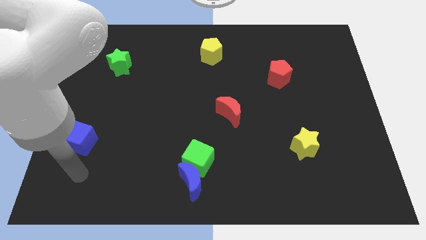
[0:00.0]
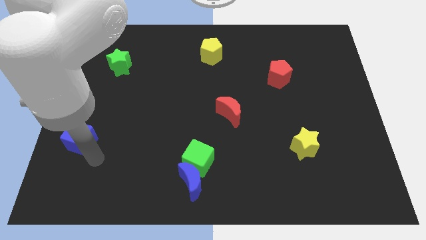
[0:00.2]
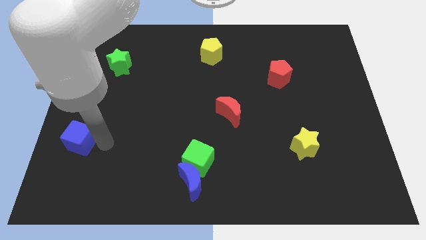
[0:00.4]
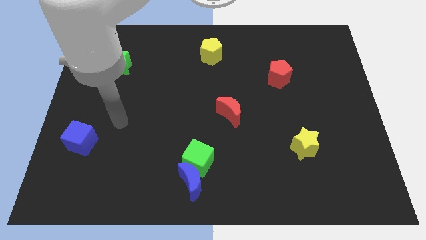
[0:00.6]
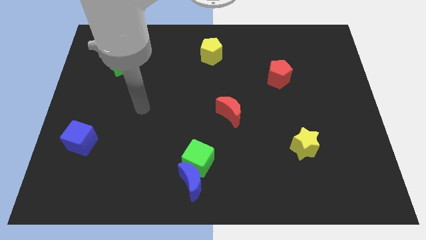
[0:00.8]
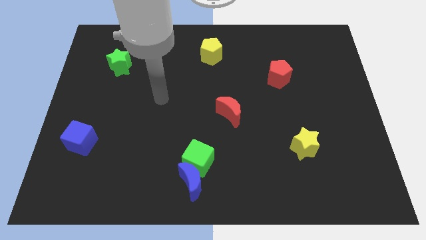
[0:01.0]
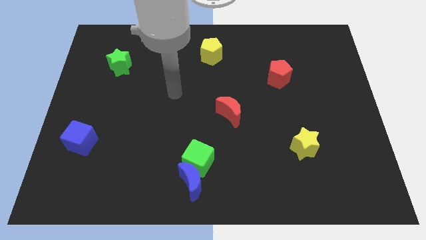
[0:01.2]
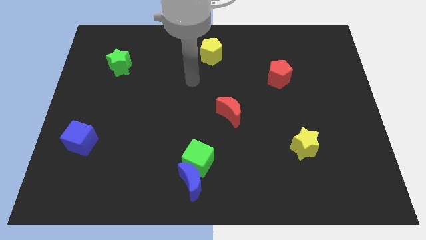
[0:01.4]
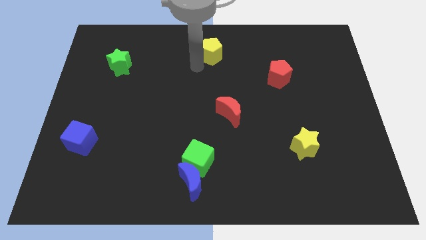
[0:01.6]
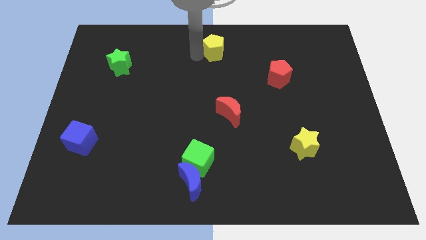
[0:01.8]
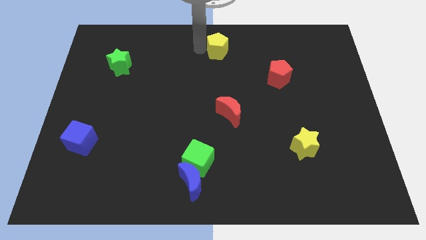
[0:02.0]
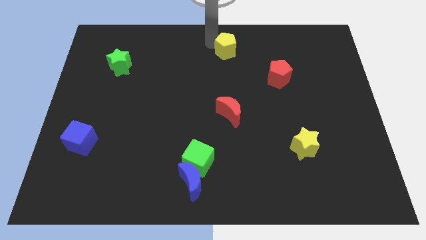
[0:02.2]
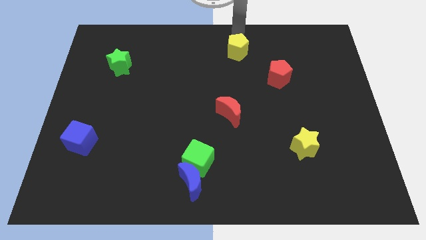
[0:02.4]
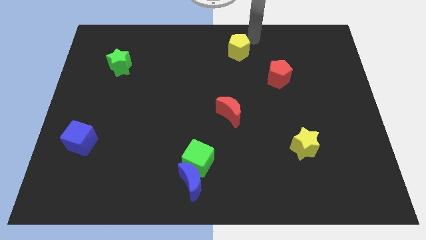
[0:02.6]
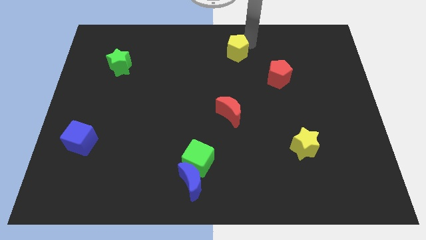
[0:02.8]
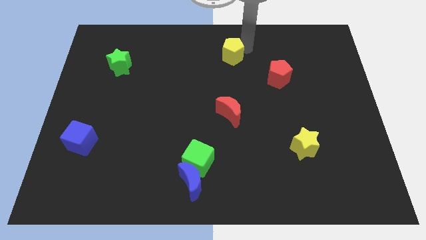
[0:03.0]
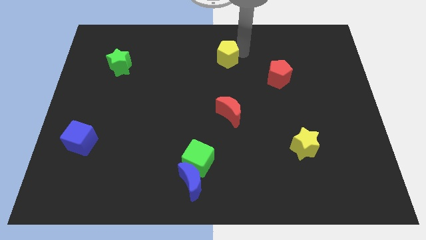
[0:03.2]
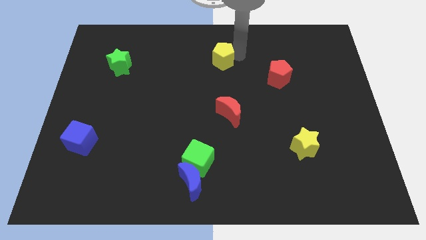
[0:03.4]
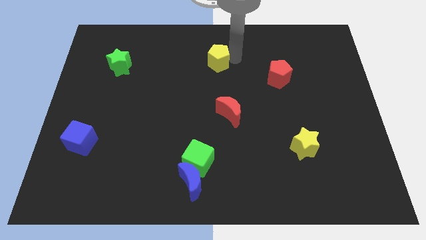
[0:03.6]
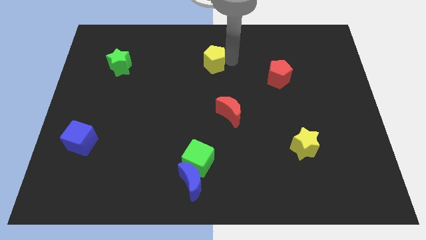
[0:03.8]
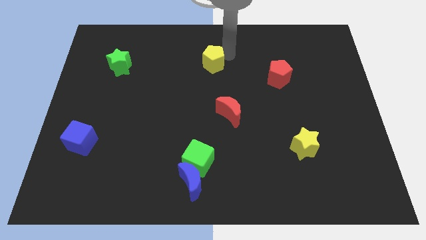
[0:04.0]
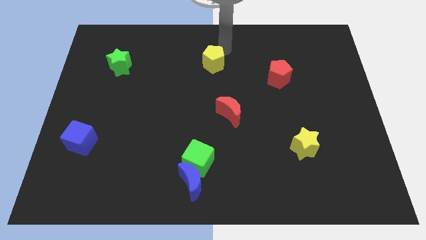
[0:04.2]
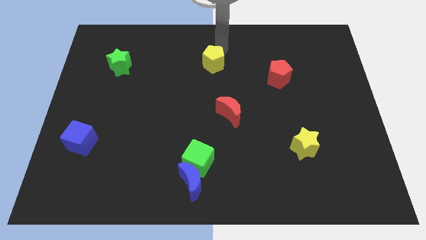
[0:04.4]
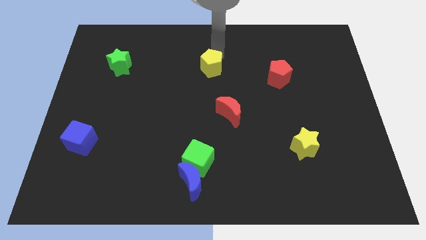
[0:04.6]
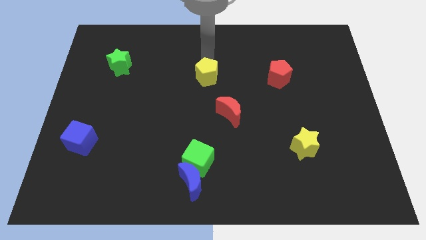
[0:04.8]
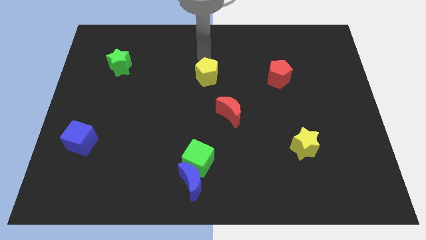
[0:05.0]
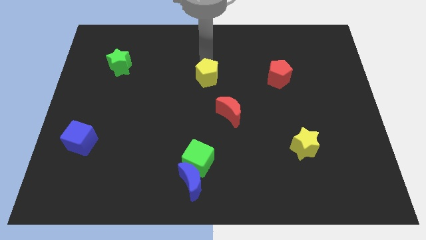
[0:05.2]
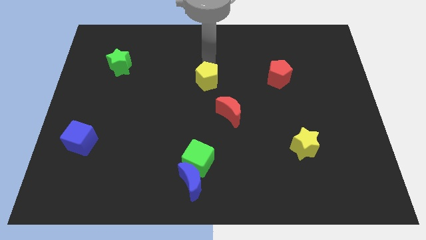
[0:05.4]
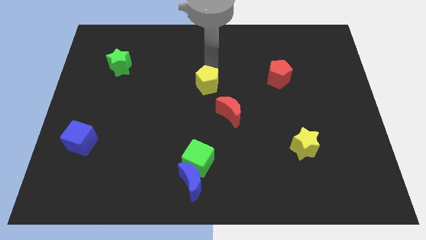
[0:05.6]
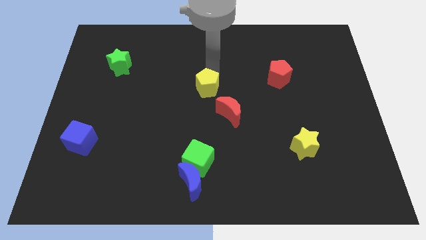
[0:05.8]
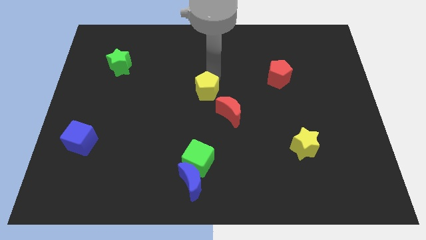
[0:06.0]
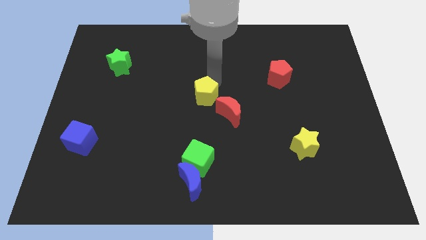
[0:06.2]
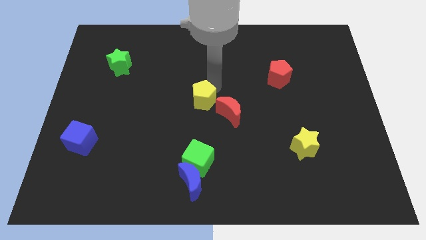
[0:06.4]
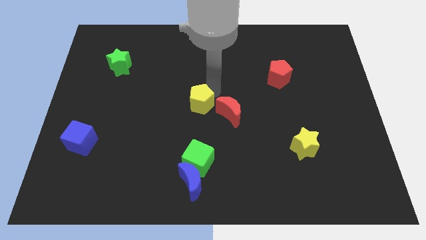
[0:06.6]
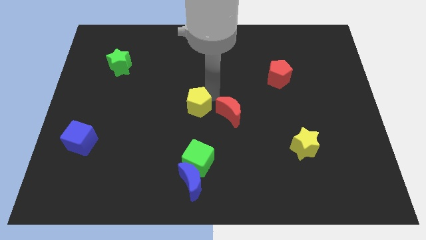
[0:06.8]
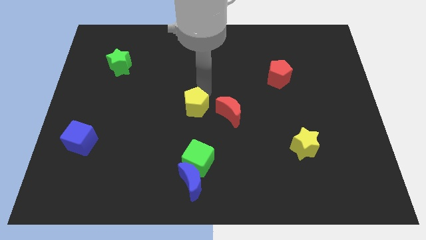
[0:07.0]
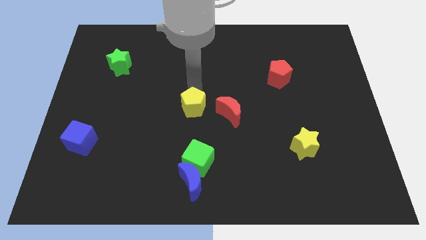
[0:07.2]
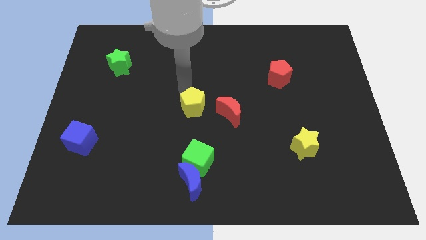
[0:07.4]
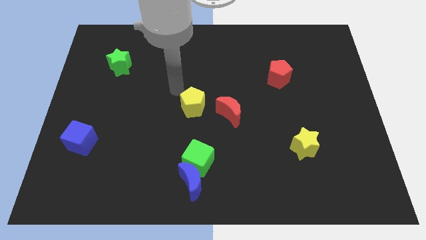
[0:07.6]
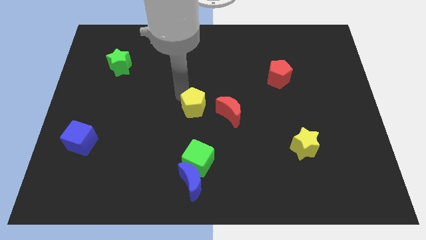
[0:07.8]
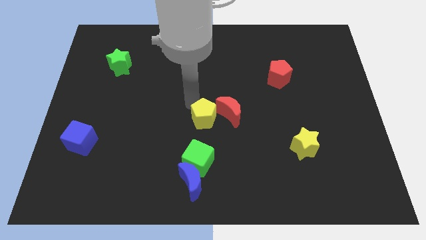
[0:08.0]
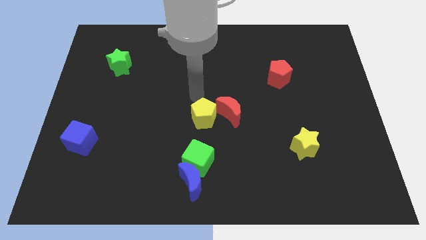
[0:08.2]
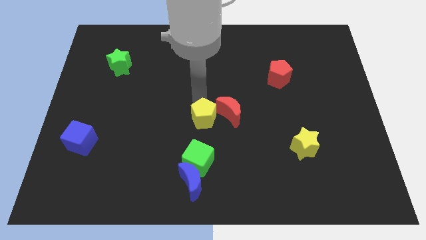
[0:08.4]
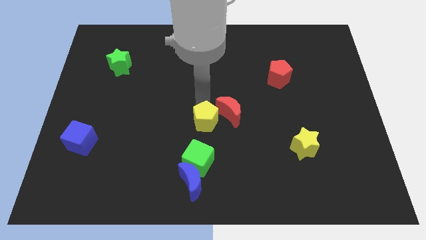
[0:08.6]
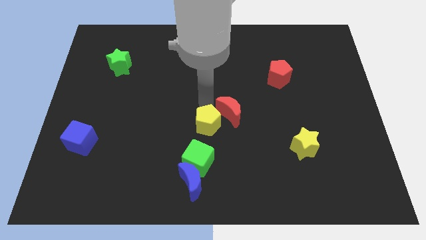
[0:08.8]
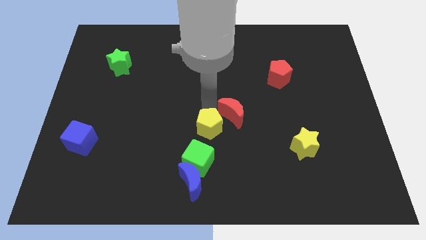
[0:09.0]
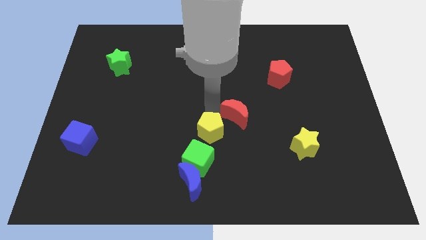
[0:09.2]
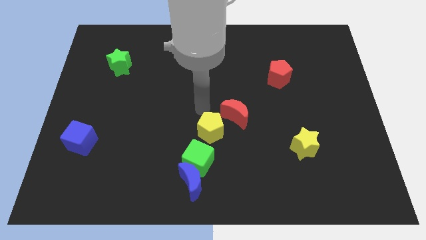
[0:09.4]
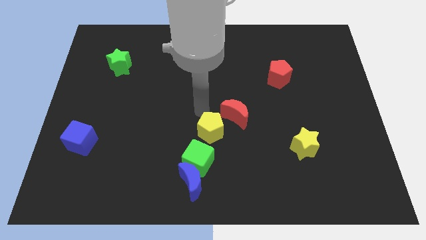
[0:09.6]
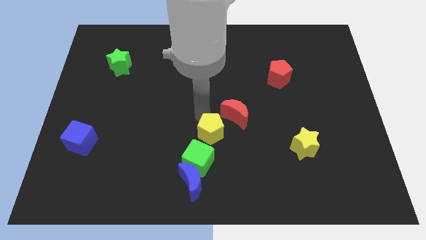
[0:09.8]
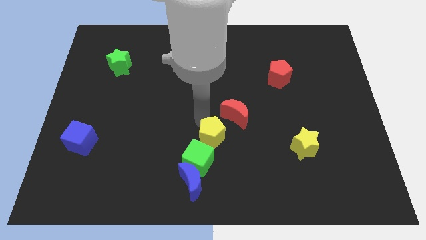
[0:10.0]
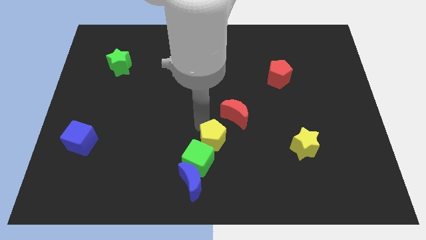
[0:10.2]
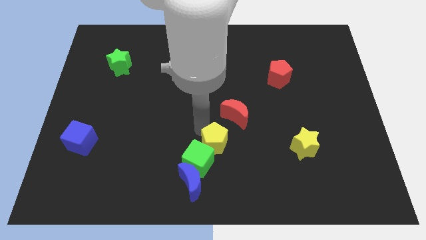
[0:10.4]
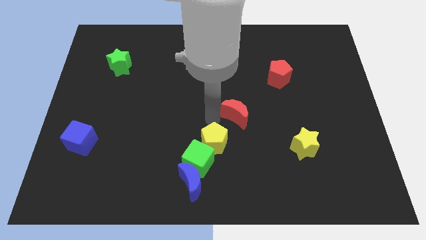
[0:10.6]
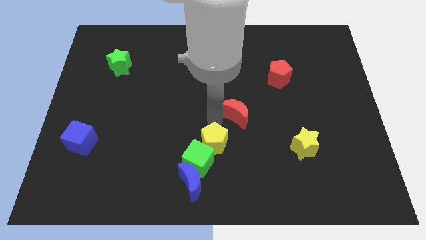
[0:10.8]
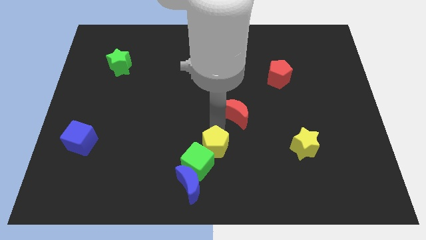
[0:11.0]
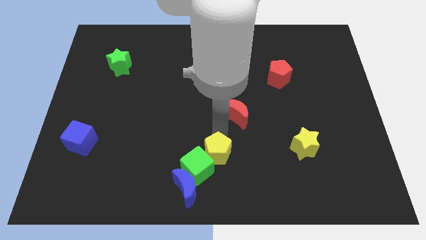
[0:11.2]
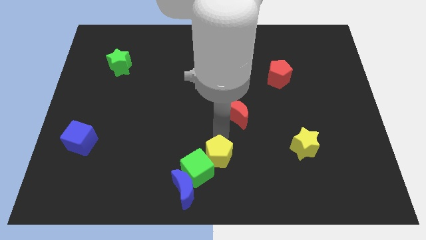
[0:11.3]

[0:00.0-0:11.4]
push the yellow pentagon to the bottom
